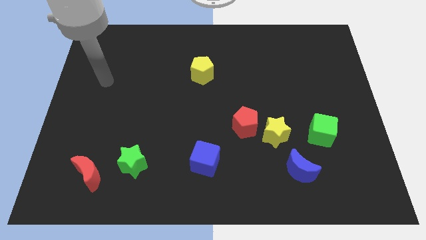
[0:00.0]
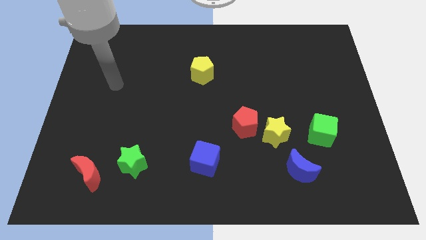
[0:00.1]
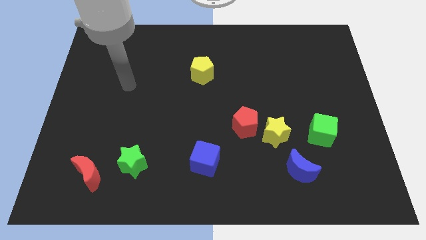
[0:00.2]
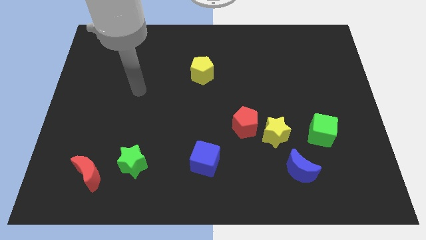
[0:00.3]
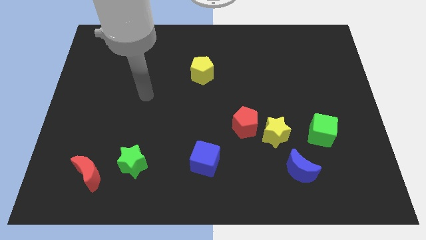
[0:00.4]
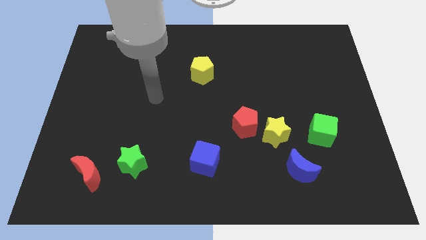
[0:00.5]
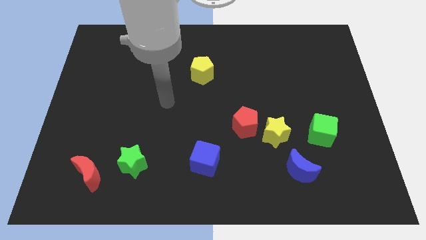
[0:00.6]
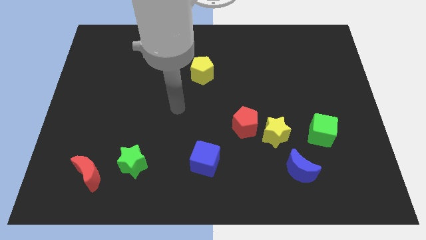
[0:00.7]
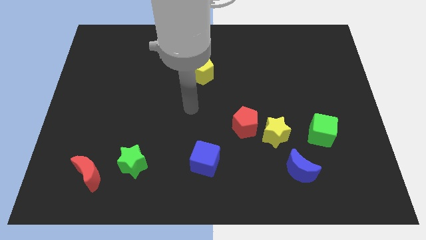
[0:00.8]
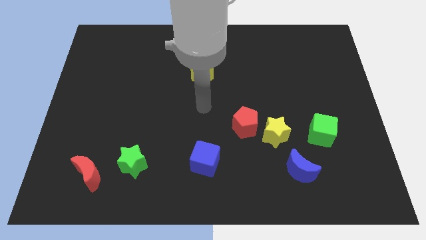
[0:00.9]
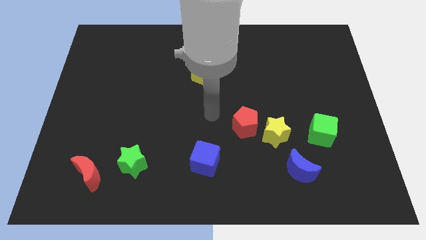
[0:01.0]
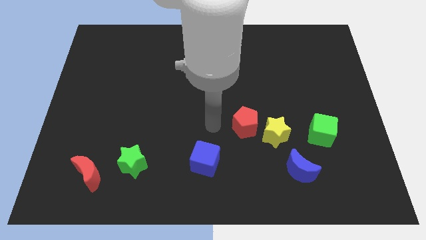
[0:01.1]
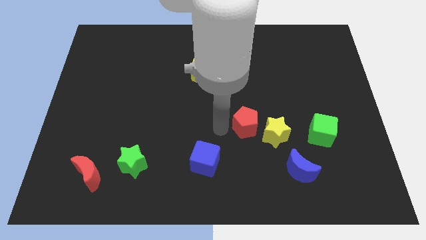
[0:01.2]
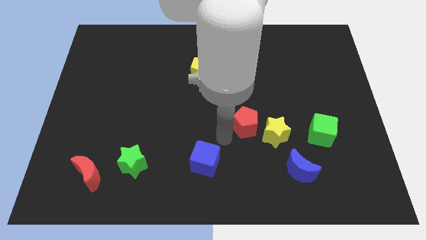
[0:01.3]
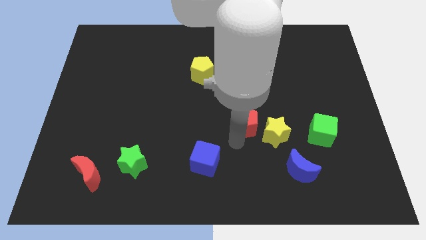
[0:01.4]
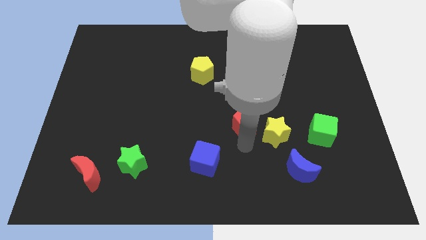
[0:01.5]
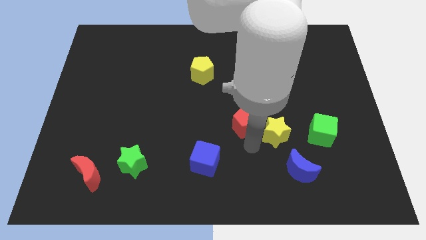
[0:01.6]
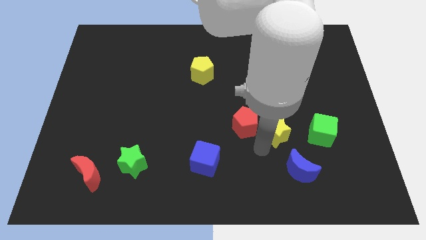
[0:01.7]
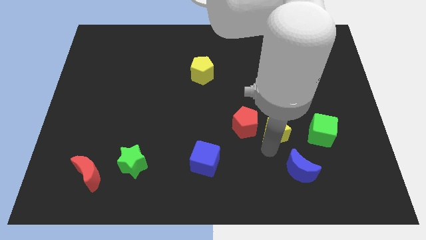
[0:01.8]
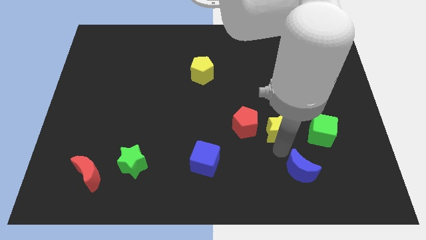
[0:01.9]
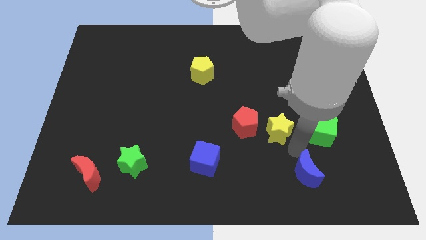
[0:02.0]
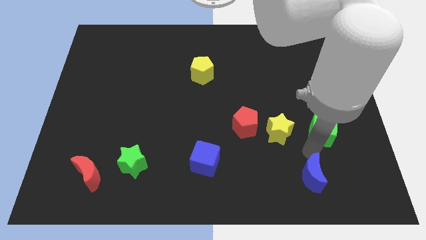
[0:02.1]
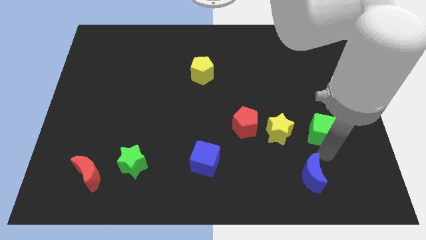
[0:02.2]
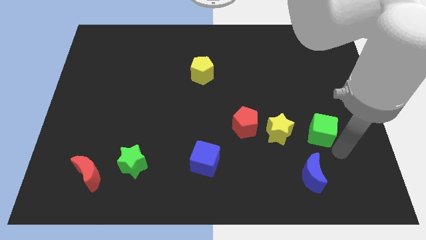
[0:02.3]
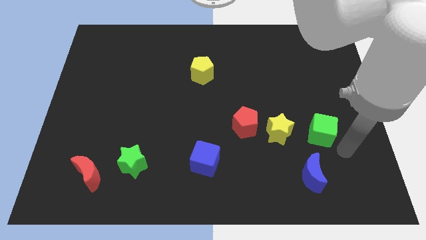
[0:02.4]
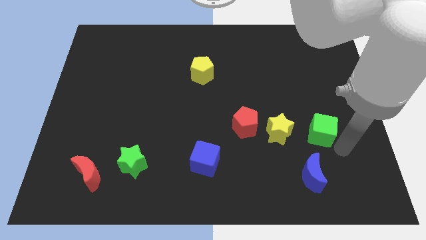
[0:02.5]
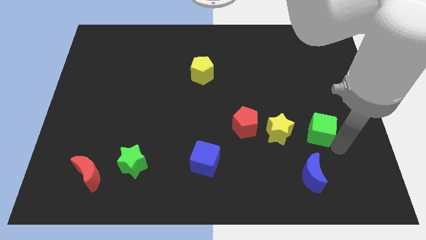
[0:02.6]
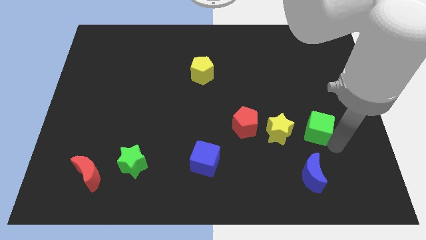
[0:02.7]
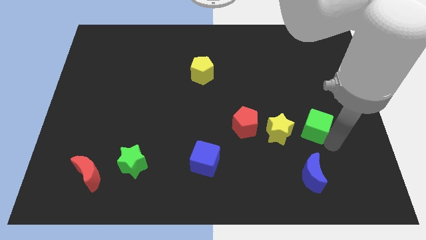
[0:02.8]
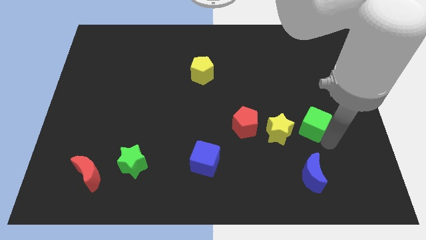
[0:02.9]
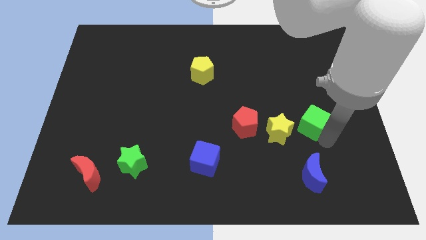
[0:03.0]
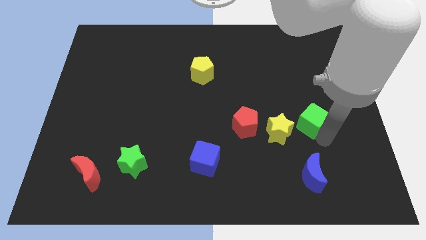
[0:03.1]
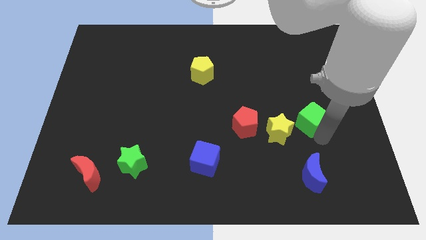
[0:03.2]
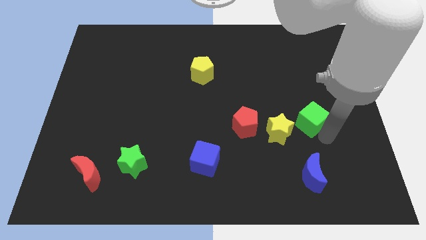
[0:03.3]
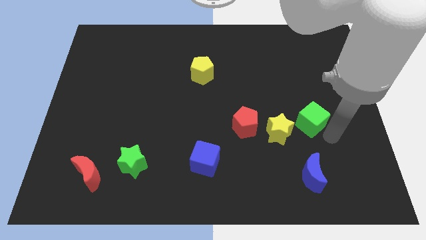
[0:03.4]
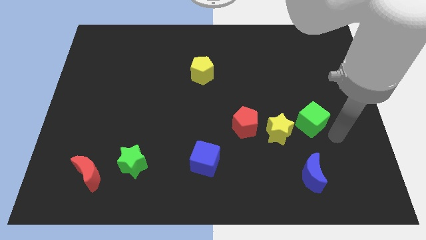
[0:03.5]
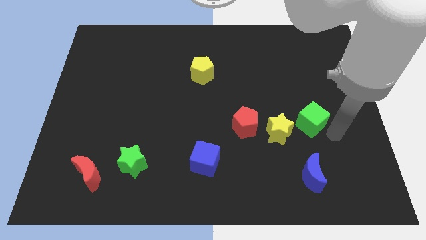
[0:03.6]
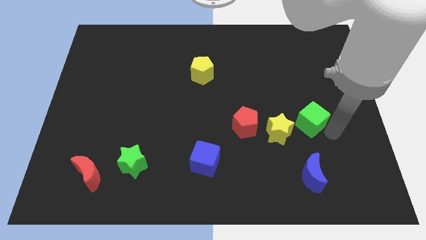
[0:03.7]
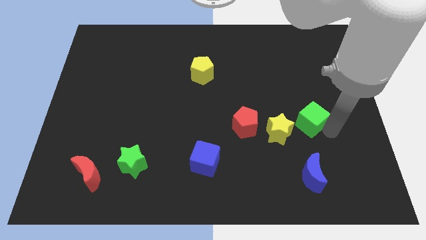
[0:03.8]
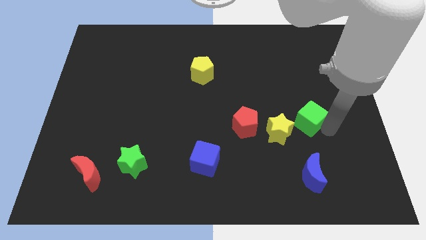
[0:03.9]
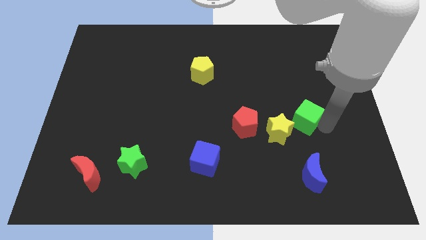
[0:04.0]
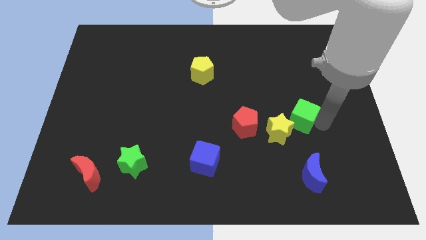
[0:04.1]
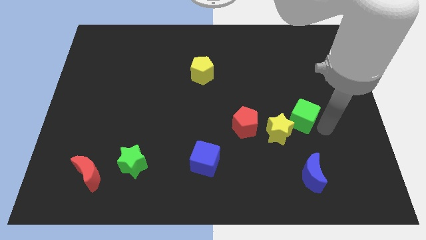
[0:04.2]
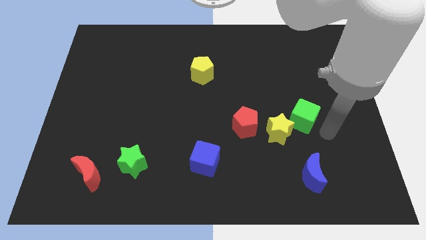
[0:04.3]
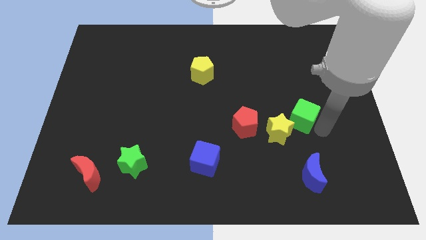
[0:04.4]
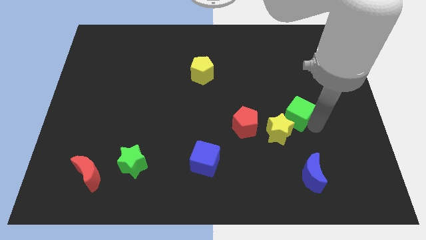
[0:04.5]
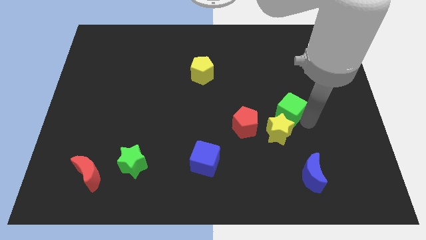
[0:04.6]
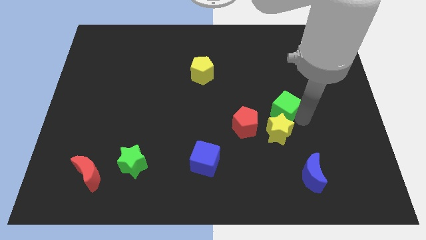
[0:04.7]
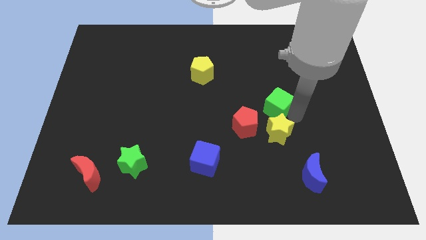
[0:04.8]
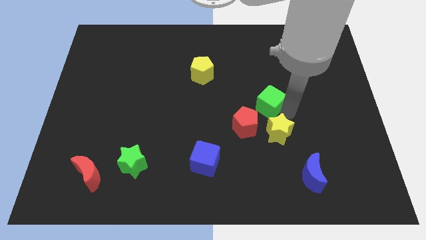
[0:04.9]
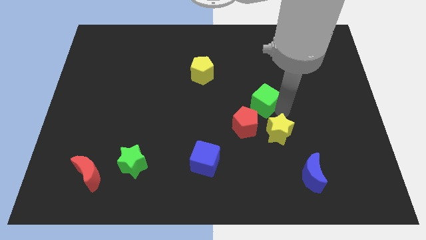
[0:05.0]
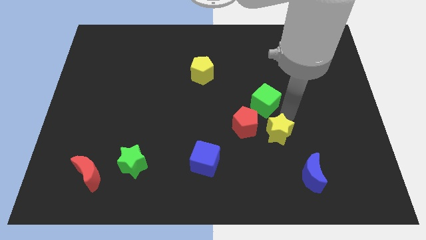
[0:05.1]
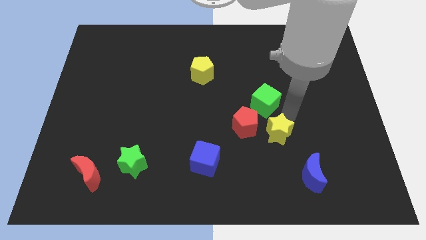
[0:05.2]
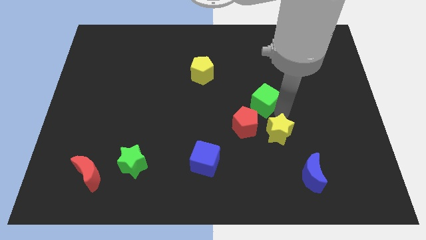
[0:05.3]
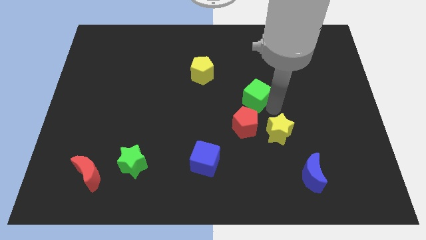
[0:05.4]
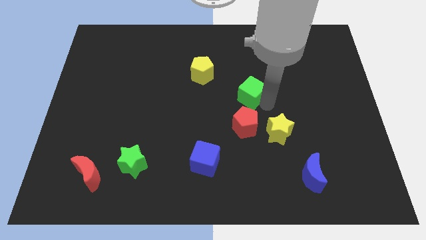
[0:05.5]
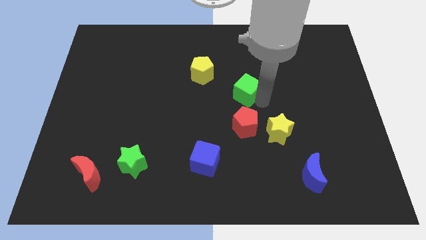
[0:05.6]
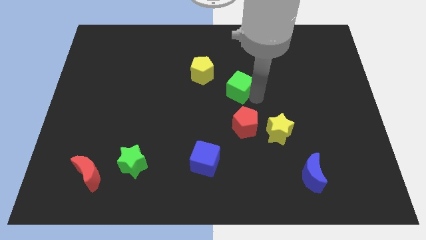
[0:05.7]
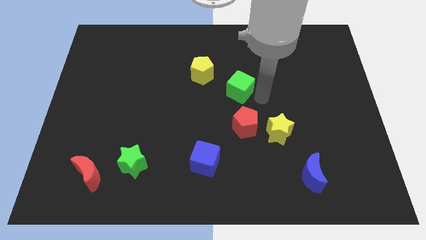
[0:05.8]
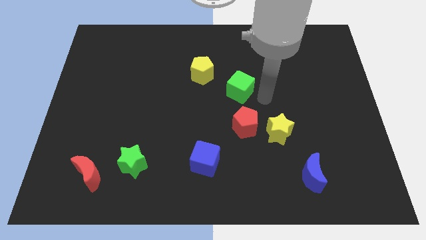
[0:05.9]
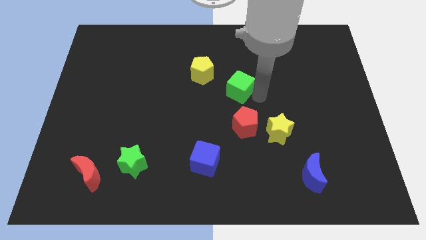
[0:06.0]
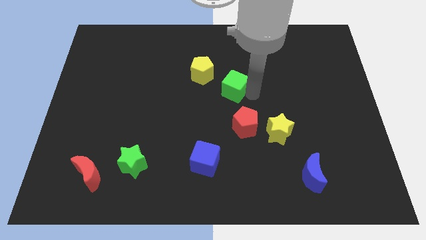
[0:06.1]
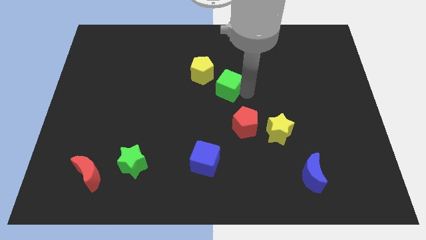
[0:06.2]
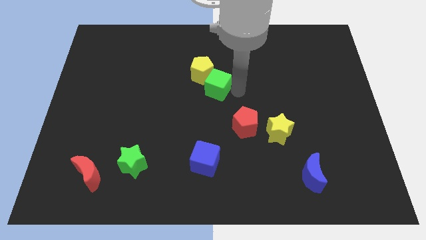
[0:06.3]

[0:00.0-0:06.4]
move the green cube to the yellow pentagon
